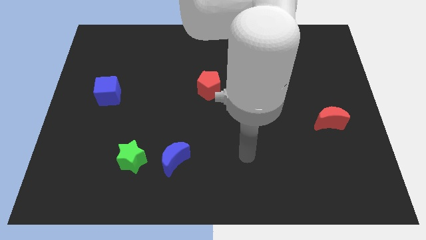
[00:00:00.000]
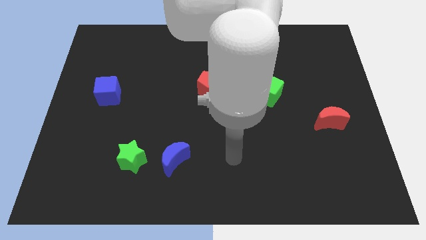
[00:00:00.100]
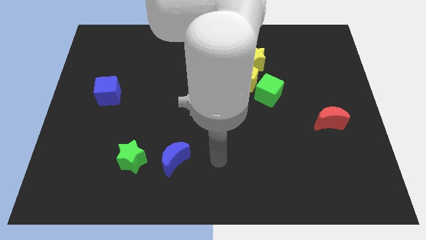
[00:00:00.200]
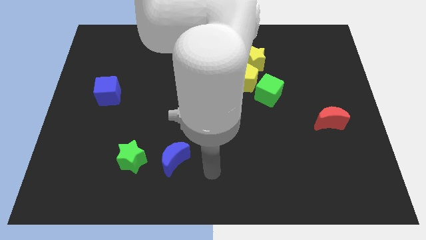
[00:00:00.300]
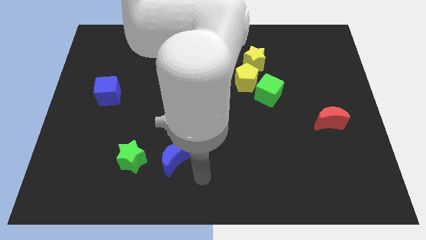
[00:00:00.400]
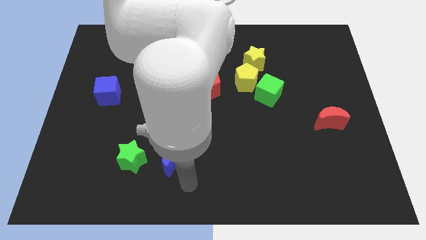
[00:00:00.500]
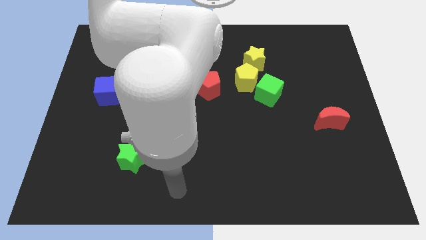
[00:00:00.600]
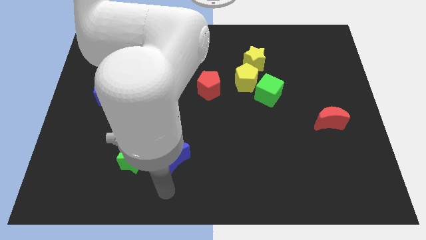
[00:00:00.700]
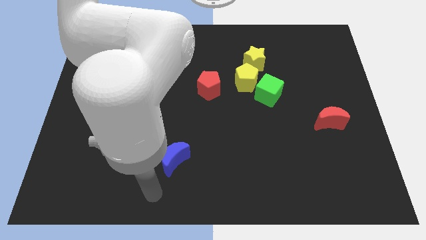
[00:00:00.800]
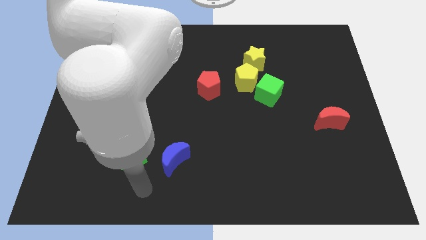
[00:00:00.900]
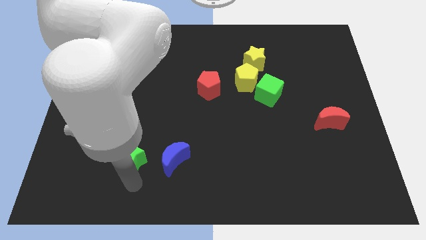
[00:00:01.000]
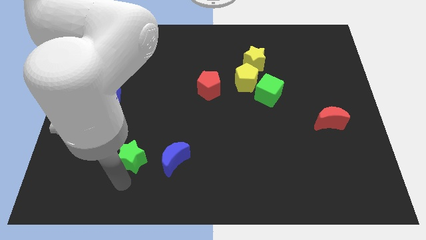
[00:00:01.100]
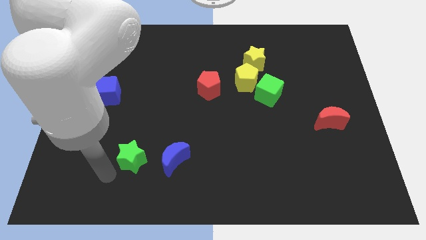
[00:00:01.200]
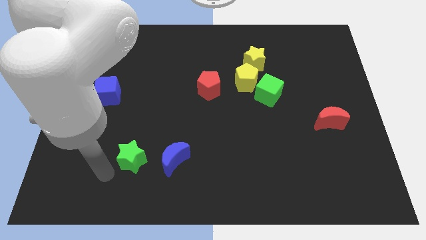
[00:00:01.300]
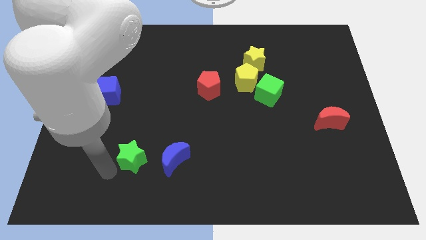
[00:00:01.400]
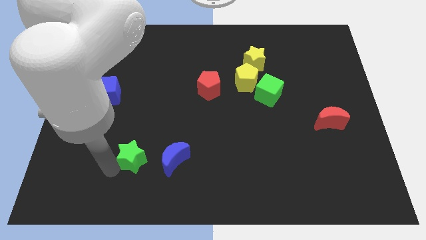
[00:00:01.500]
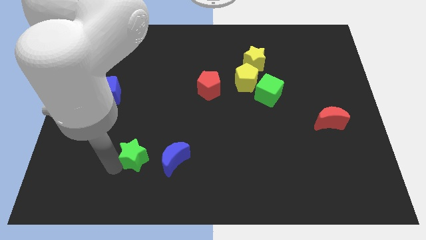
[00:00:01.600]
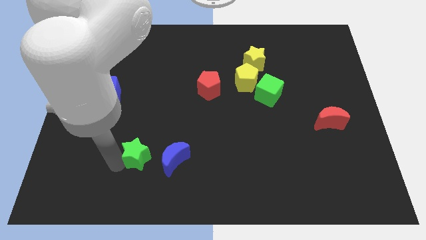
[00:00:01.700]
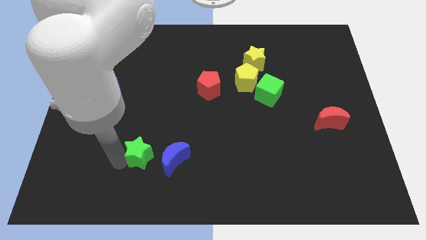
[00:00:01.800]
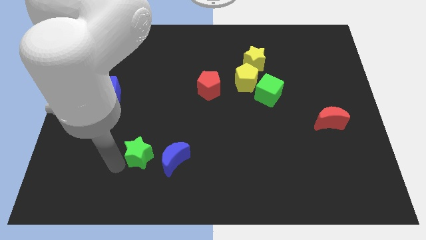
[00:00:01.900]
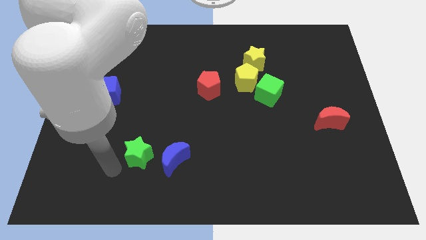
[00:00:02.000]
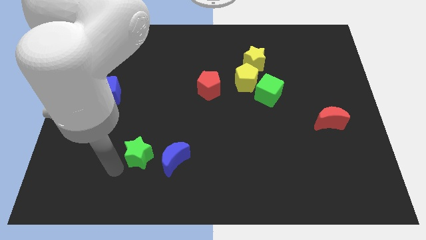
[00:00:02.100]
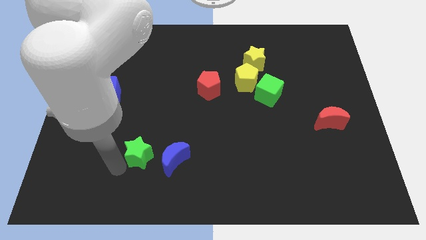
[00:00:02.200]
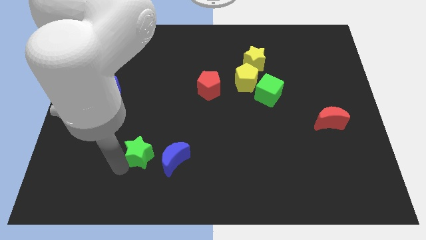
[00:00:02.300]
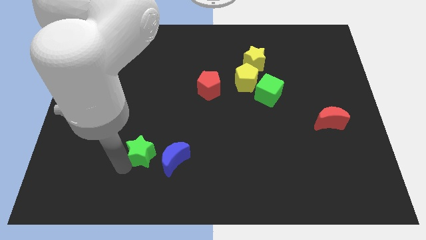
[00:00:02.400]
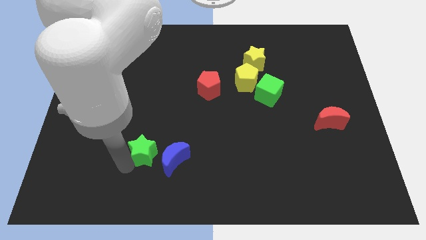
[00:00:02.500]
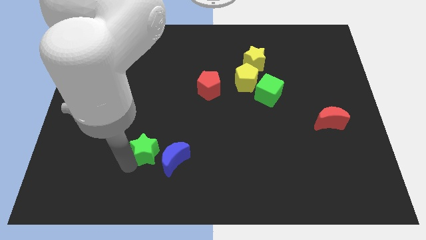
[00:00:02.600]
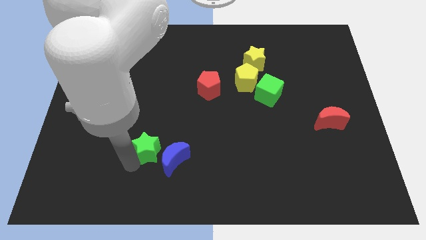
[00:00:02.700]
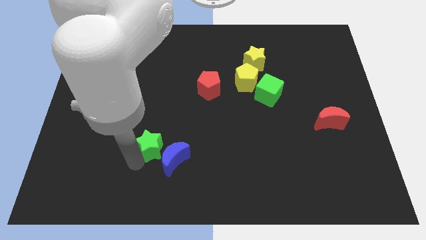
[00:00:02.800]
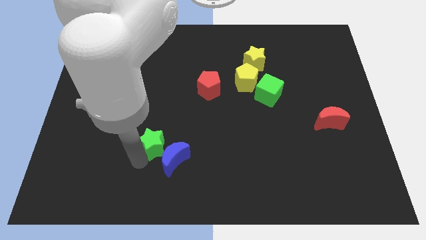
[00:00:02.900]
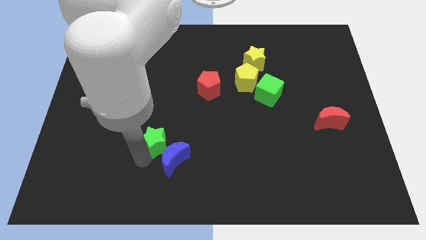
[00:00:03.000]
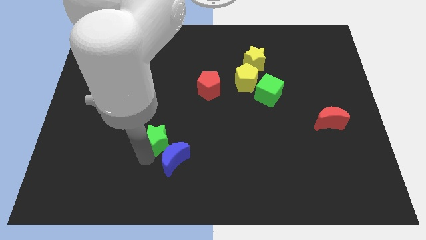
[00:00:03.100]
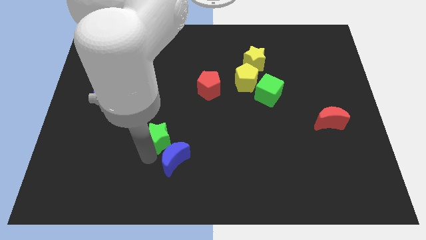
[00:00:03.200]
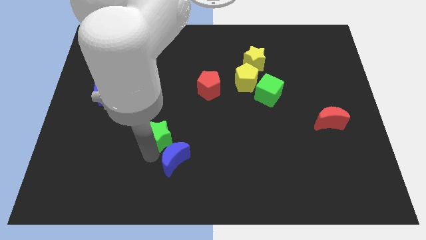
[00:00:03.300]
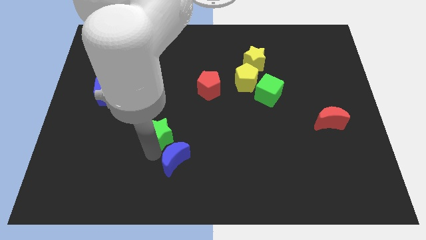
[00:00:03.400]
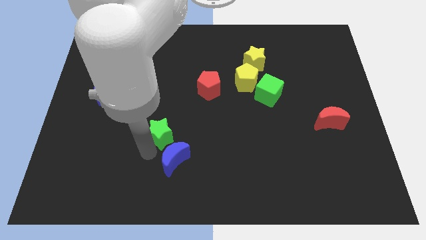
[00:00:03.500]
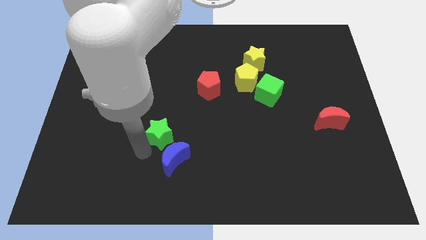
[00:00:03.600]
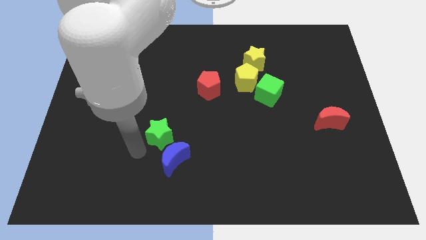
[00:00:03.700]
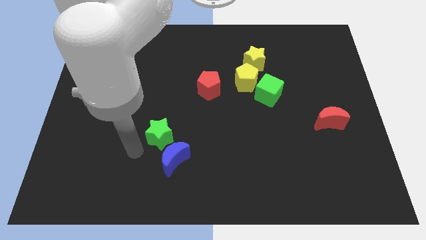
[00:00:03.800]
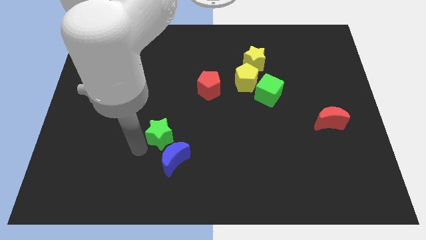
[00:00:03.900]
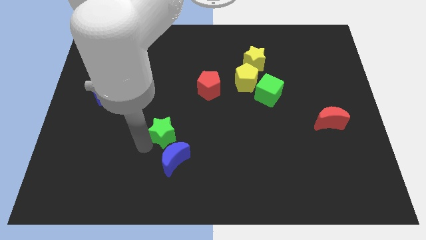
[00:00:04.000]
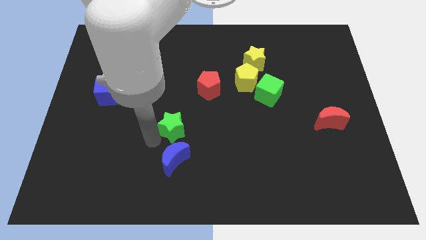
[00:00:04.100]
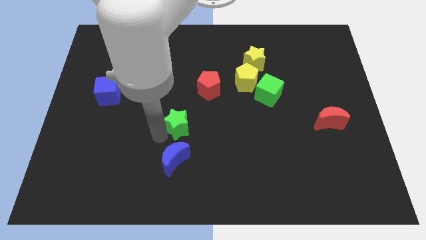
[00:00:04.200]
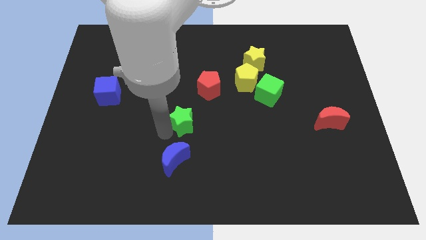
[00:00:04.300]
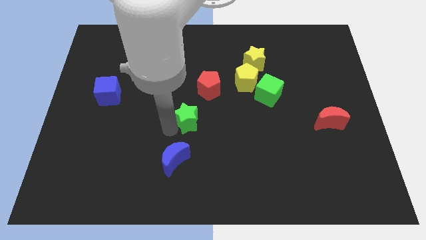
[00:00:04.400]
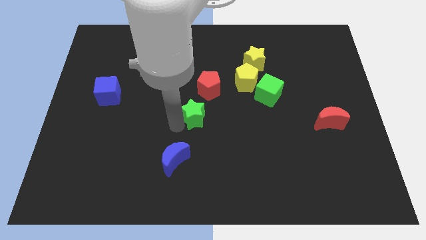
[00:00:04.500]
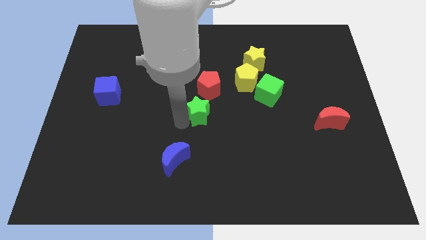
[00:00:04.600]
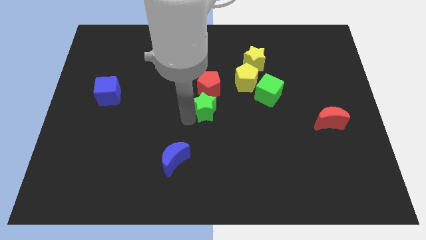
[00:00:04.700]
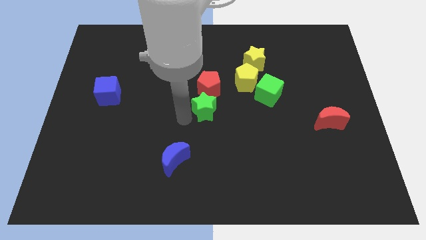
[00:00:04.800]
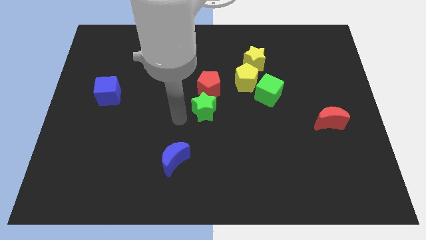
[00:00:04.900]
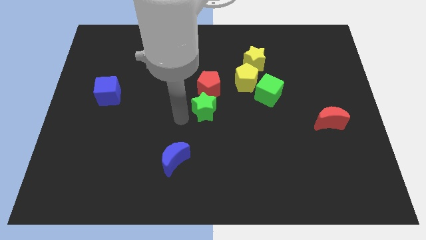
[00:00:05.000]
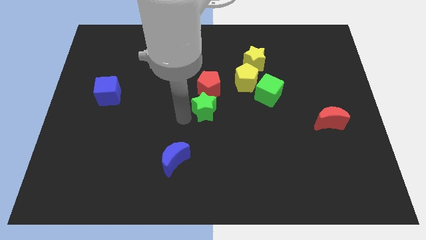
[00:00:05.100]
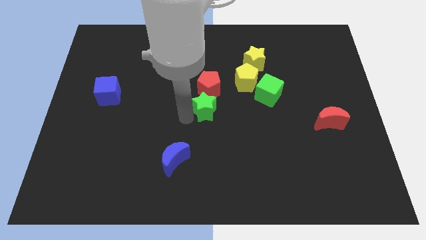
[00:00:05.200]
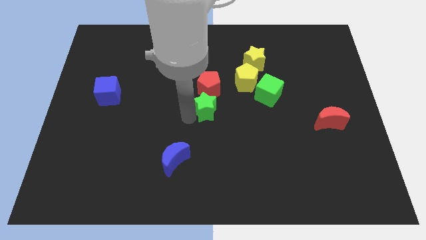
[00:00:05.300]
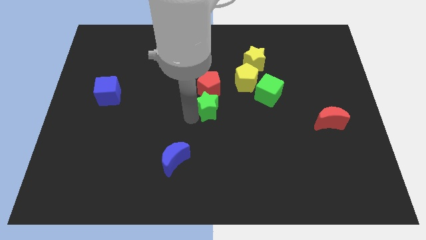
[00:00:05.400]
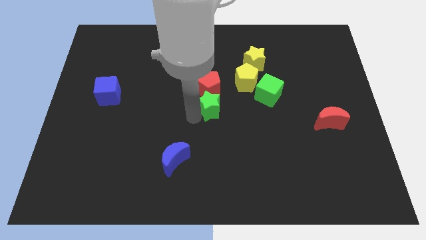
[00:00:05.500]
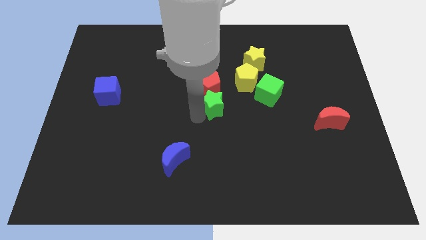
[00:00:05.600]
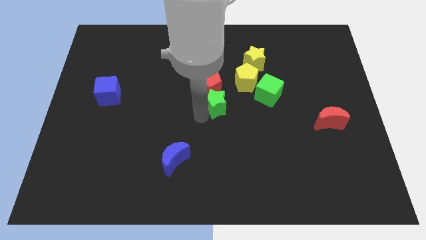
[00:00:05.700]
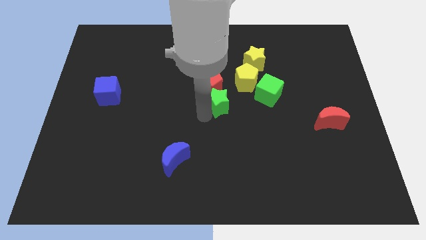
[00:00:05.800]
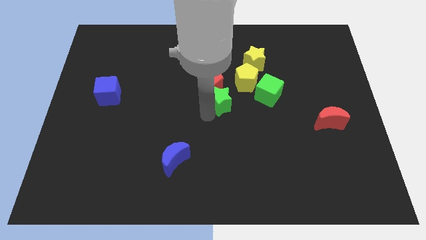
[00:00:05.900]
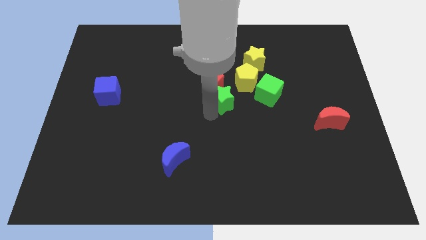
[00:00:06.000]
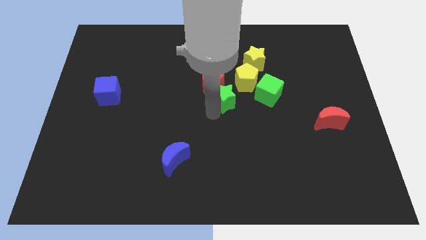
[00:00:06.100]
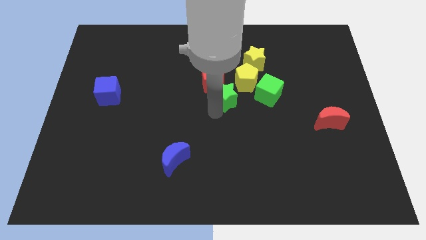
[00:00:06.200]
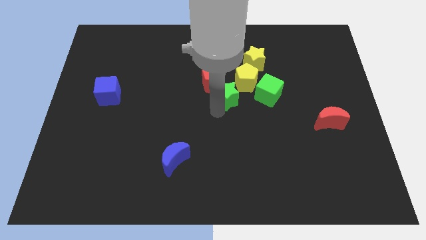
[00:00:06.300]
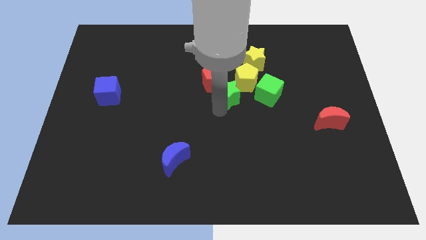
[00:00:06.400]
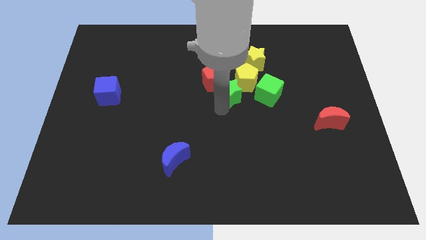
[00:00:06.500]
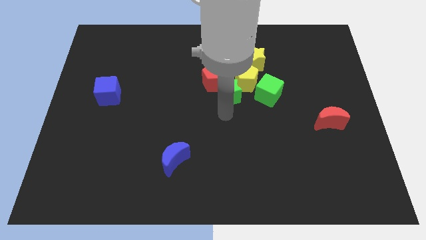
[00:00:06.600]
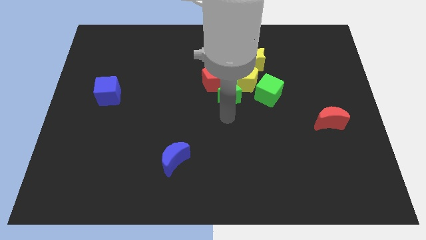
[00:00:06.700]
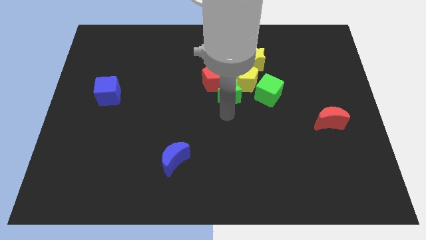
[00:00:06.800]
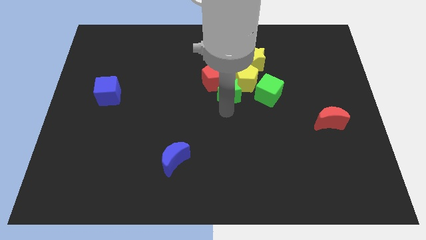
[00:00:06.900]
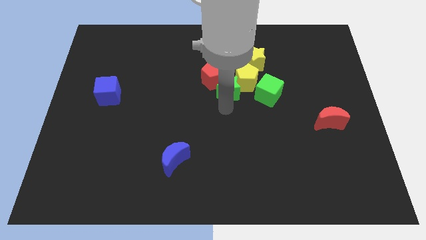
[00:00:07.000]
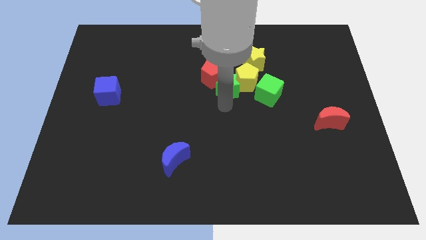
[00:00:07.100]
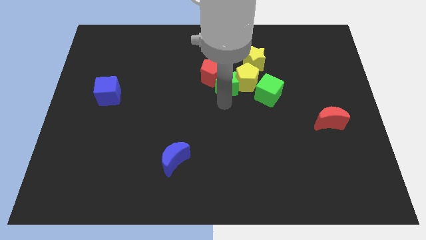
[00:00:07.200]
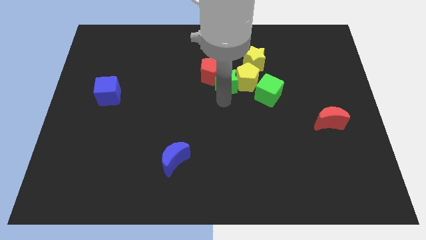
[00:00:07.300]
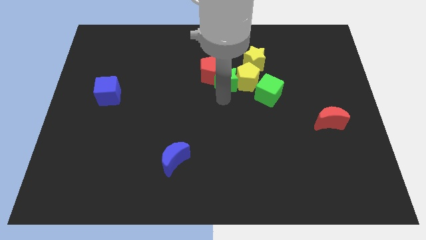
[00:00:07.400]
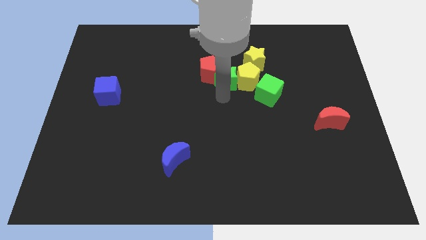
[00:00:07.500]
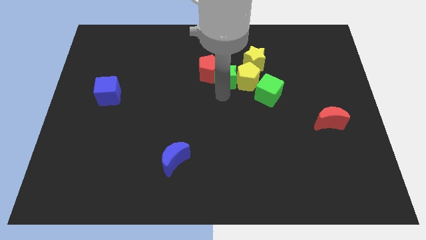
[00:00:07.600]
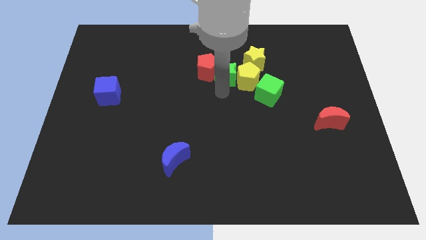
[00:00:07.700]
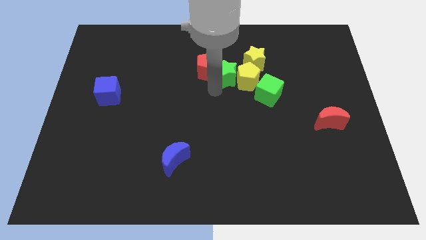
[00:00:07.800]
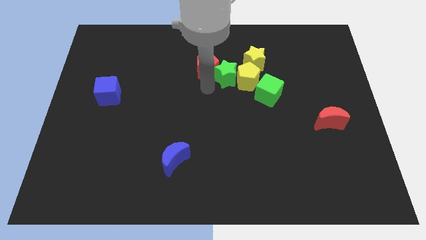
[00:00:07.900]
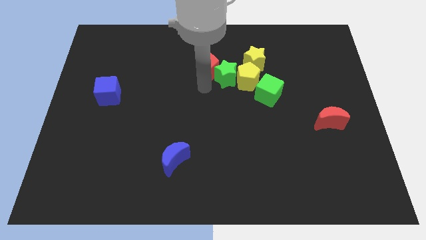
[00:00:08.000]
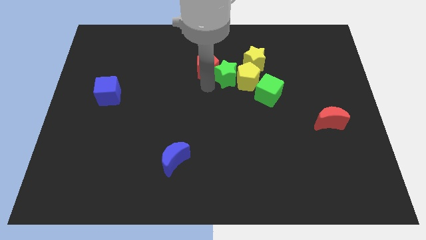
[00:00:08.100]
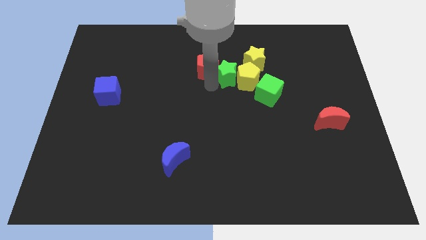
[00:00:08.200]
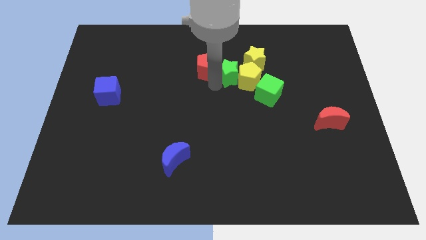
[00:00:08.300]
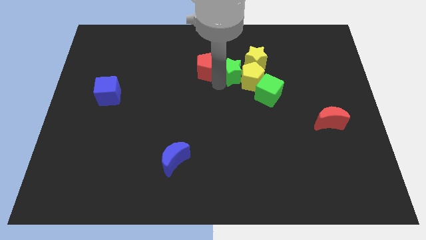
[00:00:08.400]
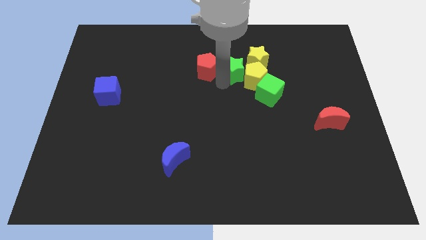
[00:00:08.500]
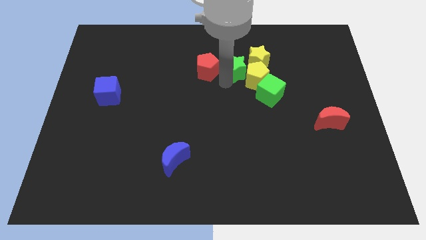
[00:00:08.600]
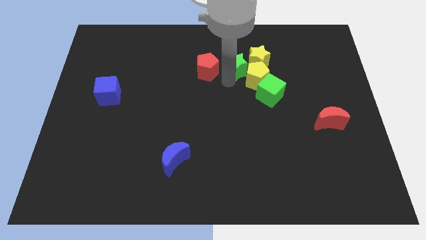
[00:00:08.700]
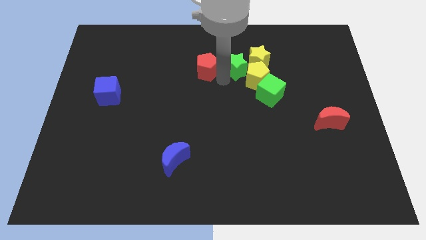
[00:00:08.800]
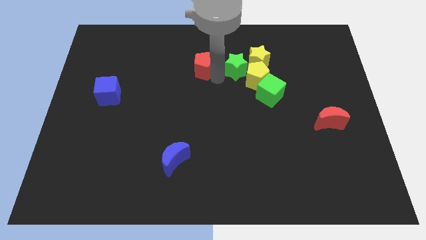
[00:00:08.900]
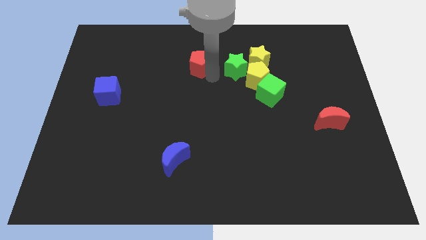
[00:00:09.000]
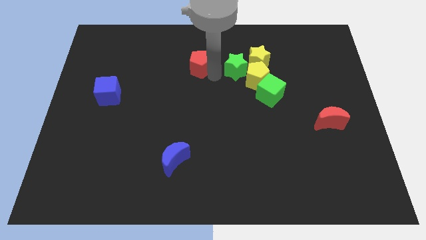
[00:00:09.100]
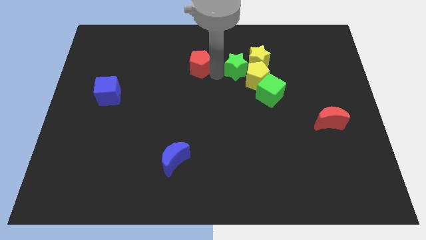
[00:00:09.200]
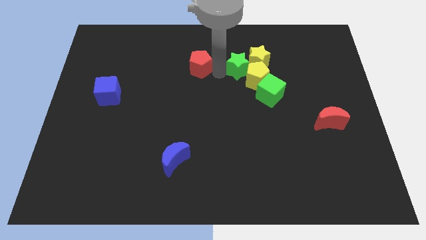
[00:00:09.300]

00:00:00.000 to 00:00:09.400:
push the green star close to the yellow star
